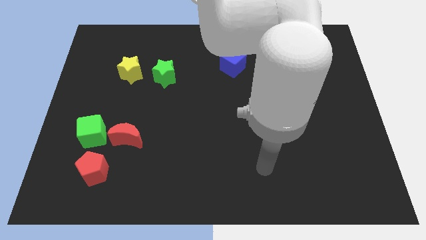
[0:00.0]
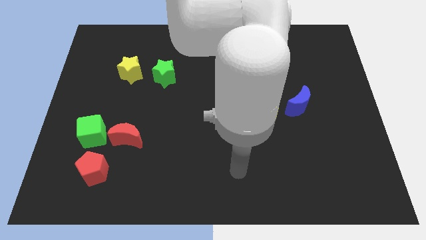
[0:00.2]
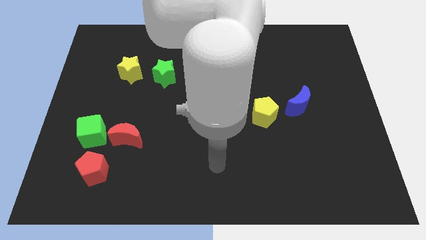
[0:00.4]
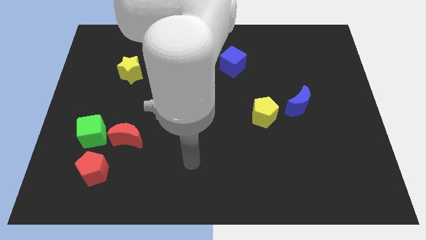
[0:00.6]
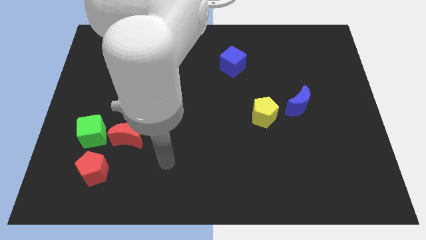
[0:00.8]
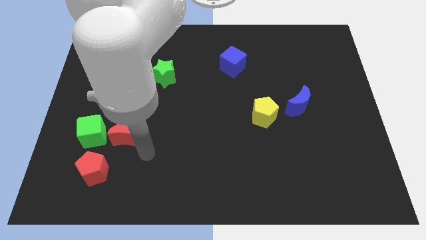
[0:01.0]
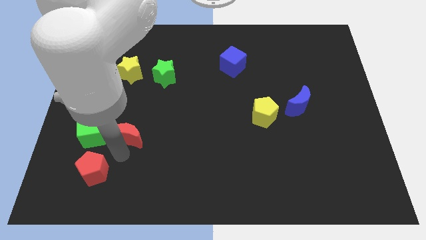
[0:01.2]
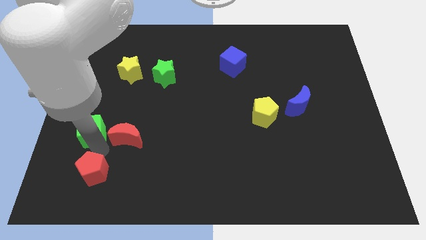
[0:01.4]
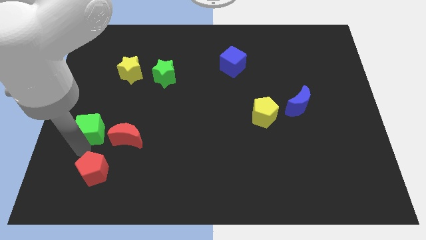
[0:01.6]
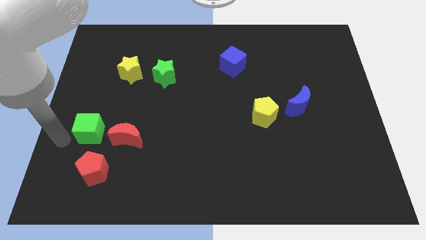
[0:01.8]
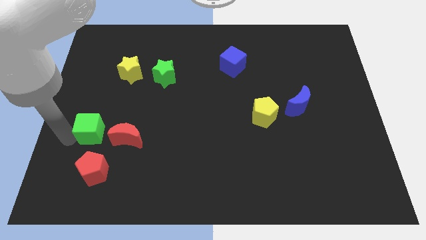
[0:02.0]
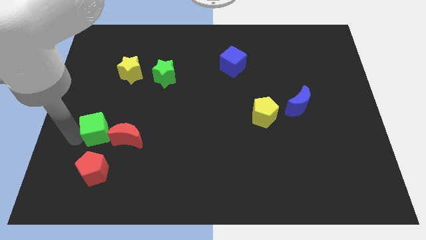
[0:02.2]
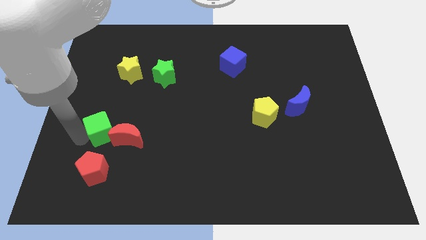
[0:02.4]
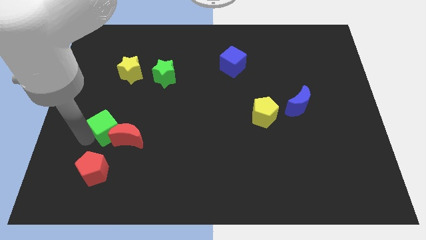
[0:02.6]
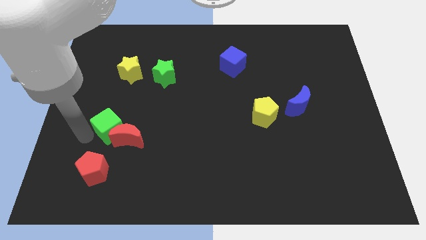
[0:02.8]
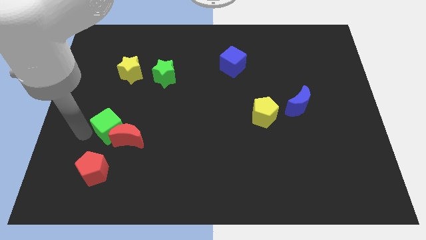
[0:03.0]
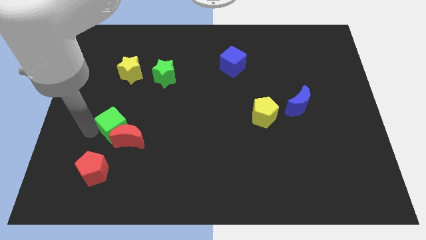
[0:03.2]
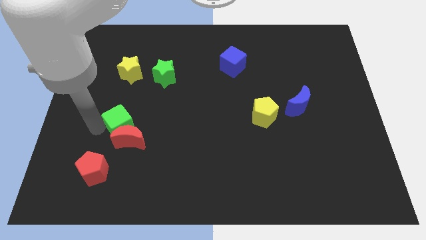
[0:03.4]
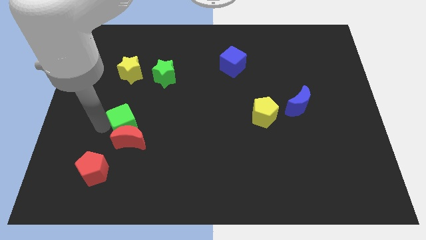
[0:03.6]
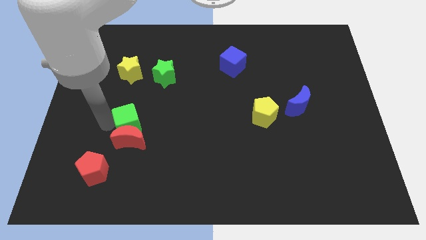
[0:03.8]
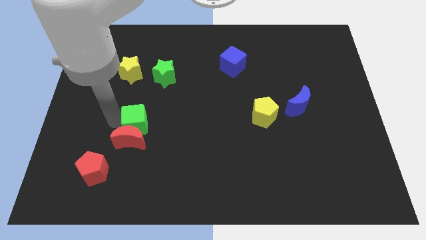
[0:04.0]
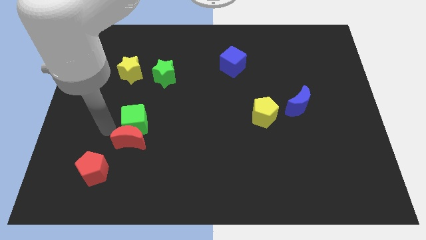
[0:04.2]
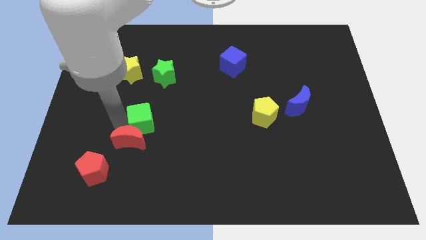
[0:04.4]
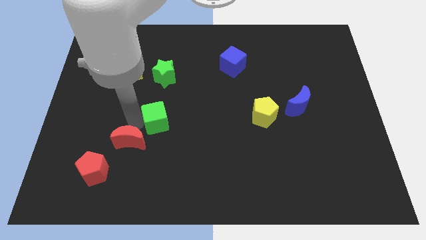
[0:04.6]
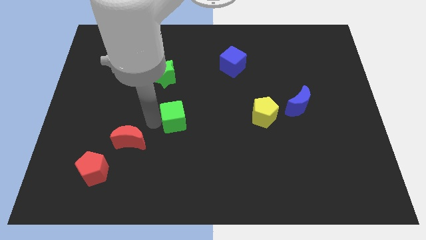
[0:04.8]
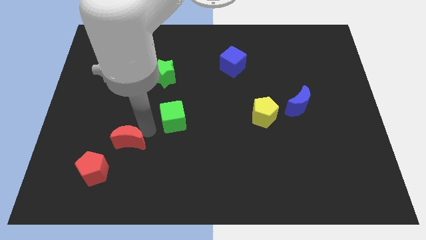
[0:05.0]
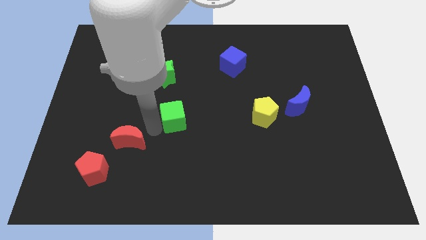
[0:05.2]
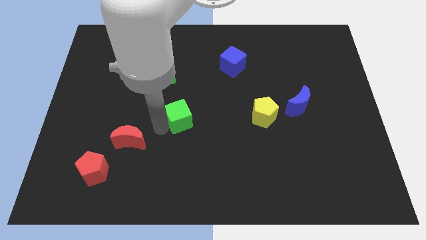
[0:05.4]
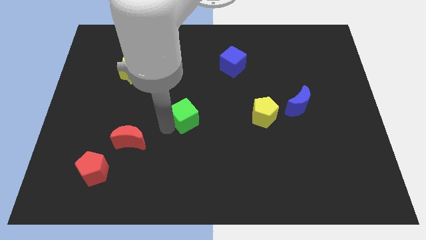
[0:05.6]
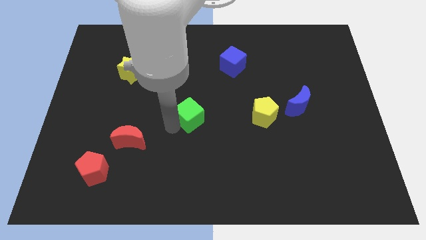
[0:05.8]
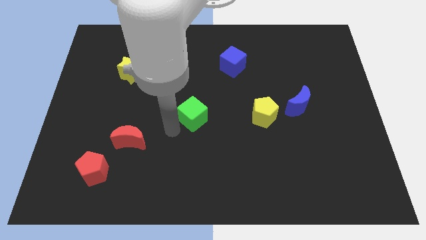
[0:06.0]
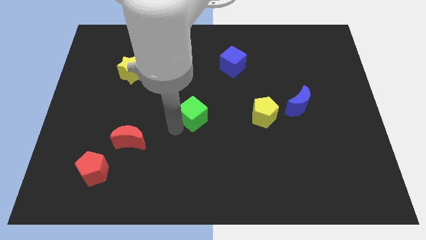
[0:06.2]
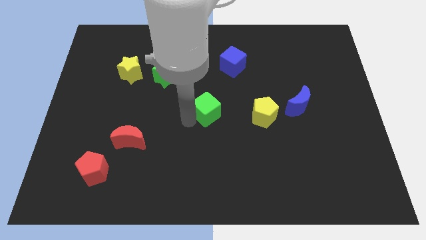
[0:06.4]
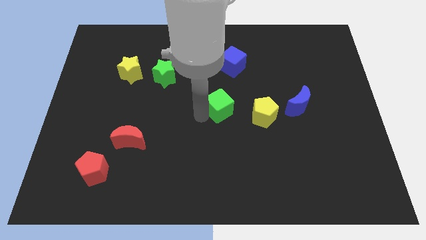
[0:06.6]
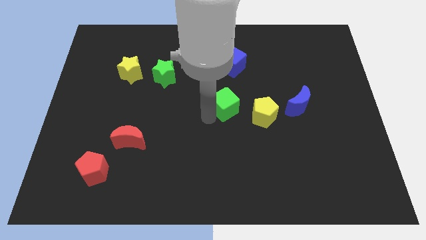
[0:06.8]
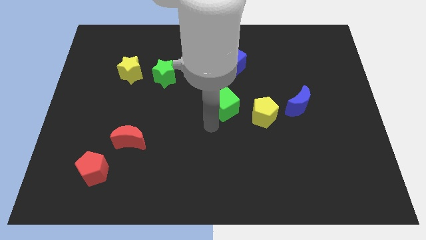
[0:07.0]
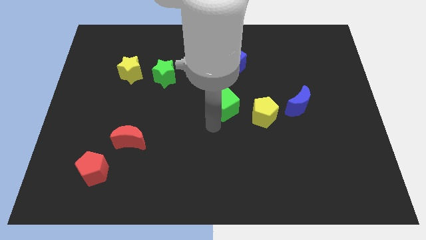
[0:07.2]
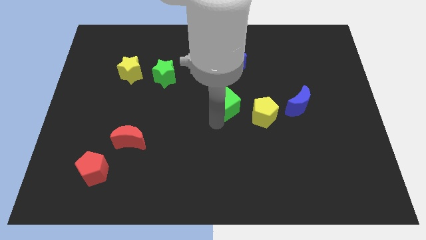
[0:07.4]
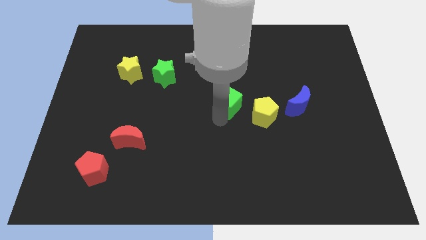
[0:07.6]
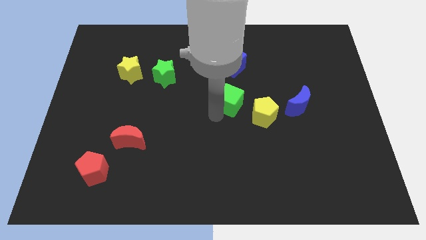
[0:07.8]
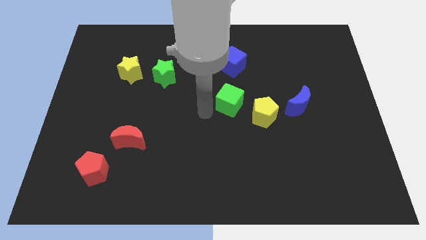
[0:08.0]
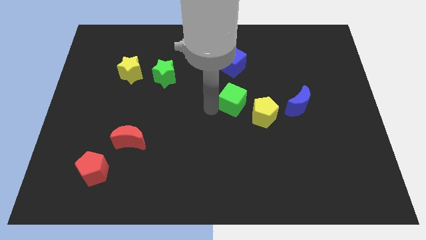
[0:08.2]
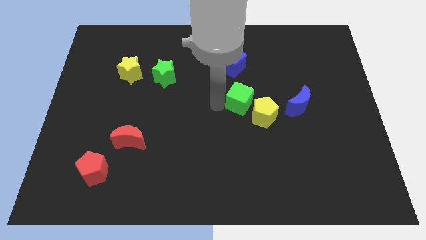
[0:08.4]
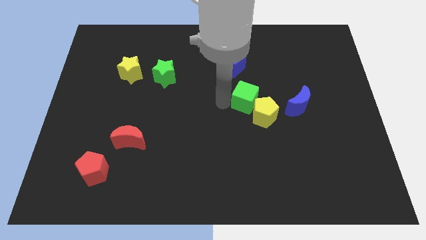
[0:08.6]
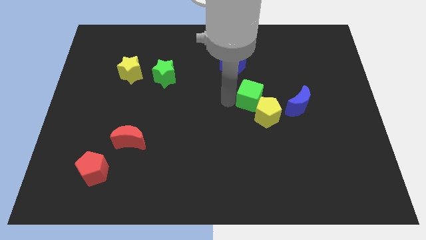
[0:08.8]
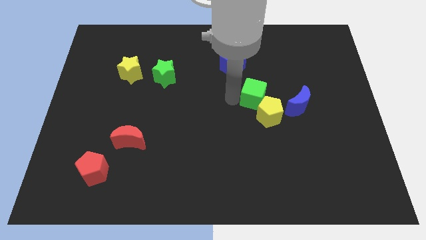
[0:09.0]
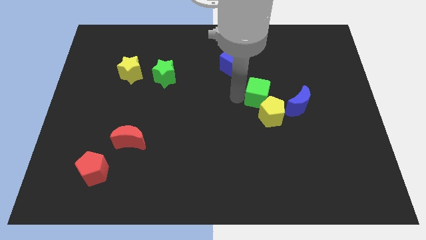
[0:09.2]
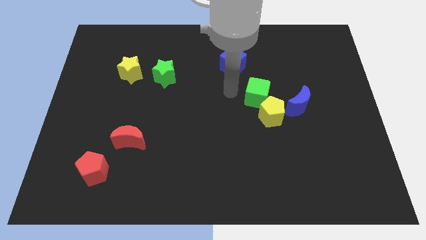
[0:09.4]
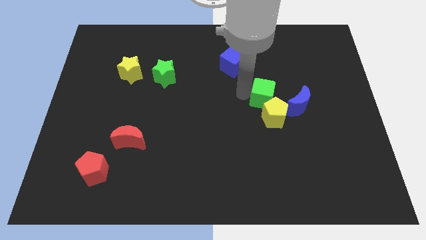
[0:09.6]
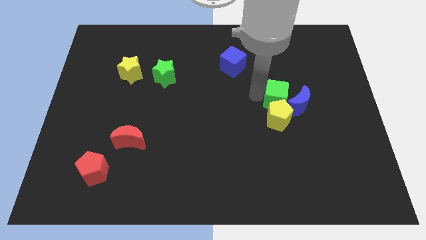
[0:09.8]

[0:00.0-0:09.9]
move the green cube towards the blue moon

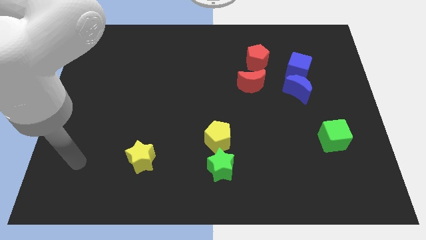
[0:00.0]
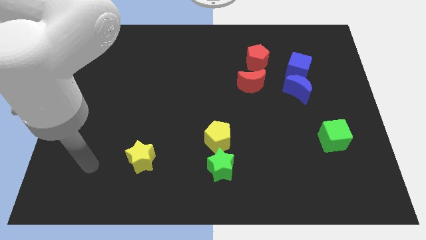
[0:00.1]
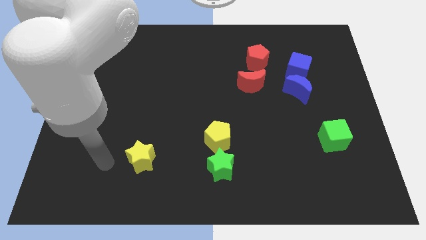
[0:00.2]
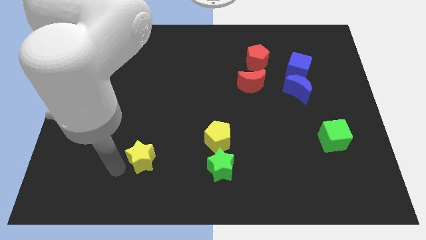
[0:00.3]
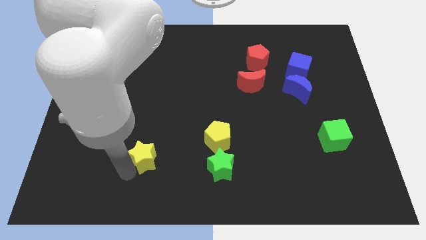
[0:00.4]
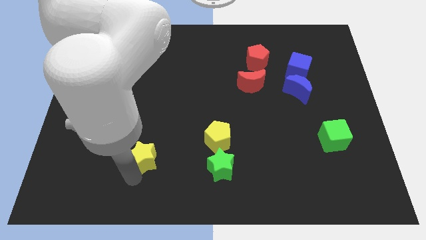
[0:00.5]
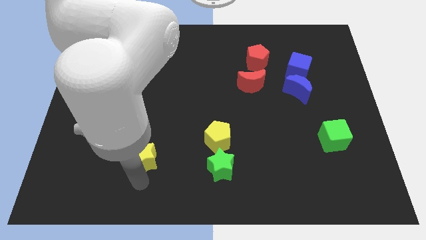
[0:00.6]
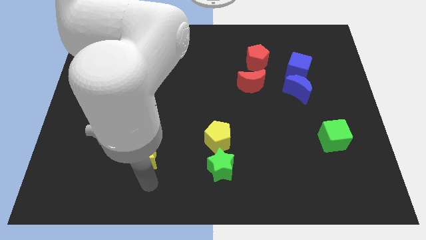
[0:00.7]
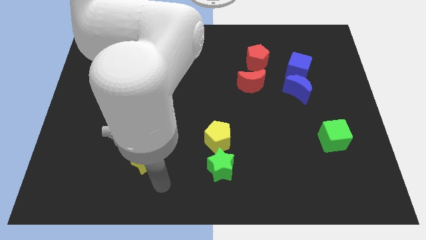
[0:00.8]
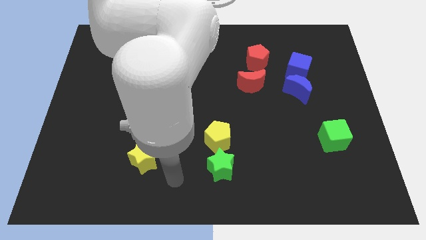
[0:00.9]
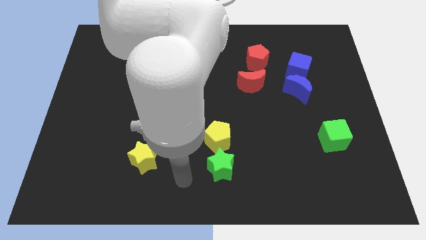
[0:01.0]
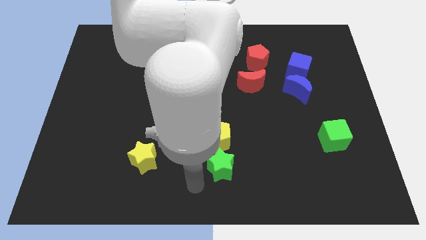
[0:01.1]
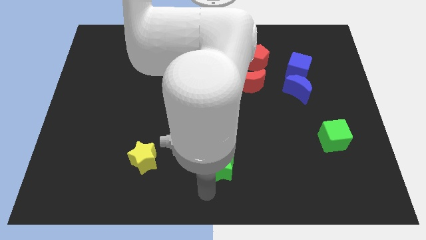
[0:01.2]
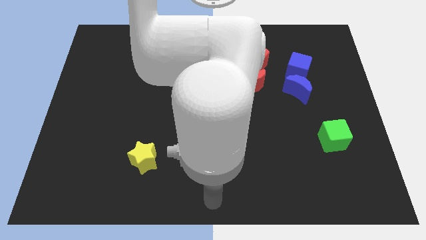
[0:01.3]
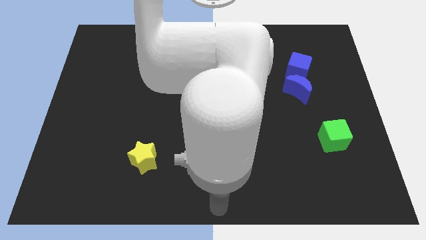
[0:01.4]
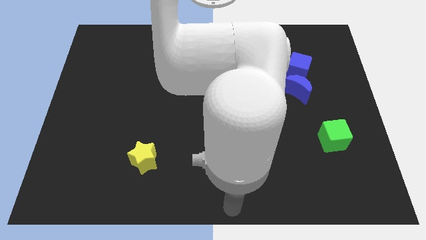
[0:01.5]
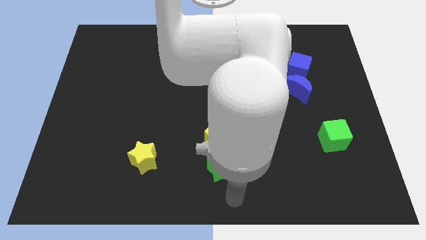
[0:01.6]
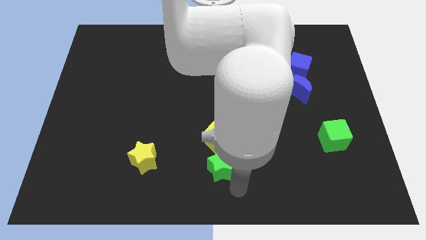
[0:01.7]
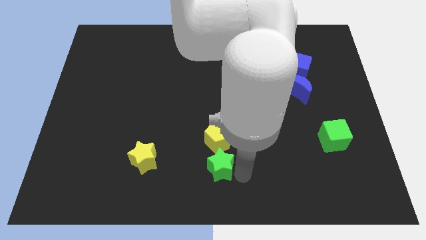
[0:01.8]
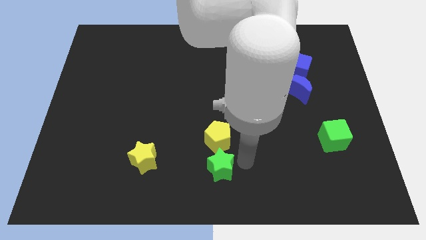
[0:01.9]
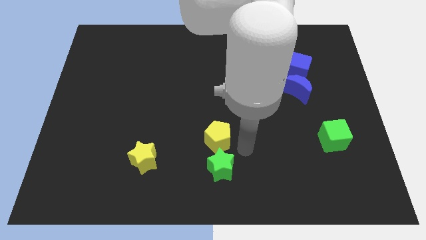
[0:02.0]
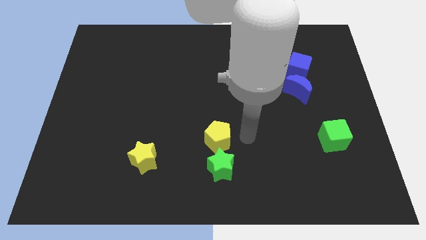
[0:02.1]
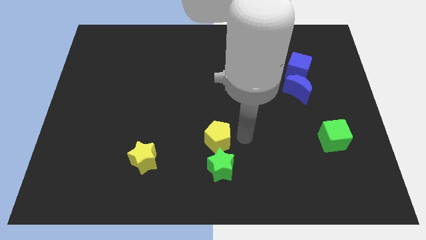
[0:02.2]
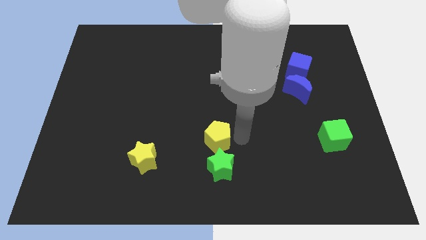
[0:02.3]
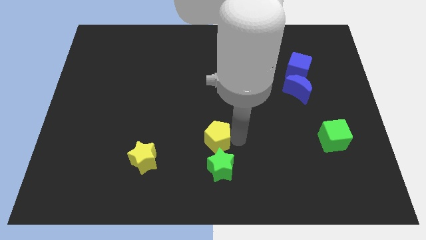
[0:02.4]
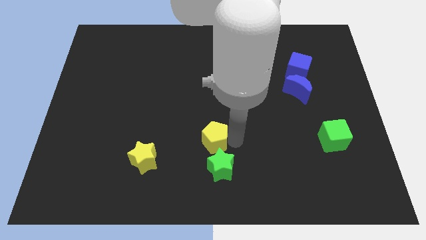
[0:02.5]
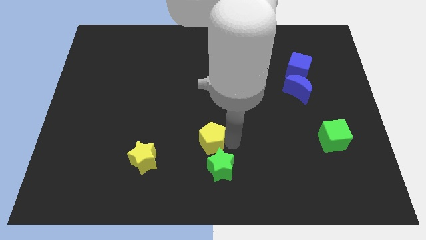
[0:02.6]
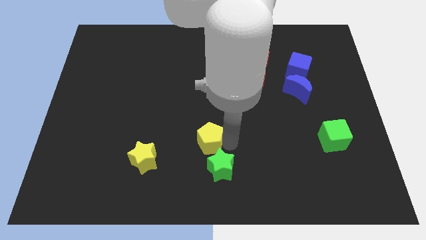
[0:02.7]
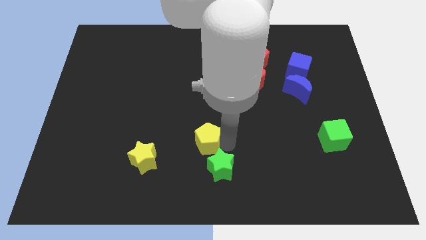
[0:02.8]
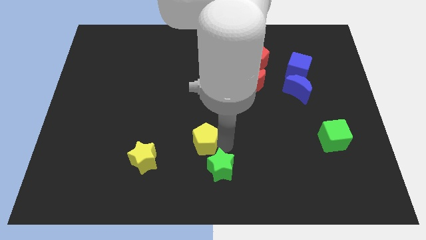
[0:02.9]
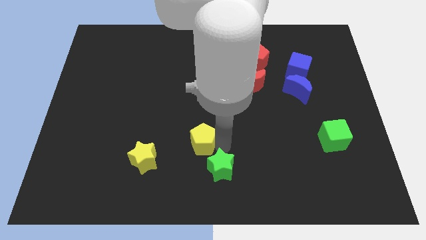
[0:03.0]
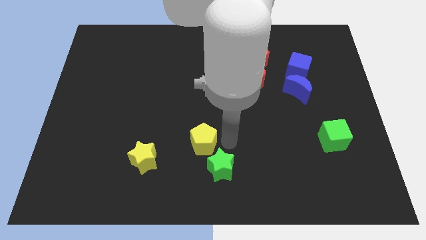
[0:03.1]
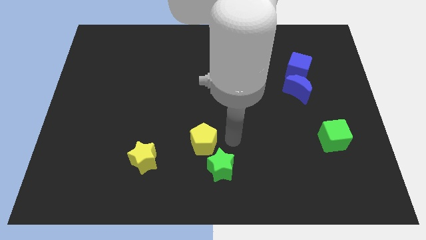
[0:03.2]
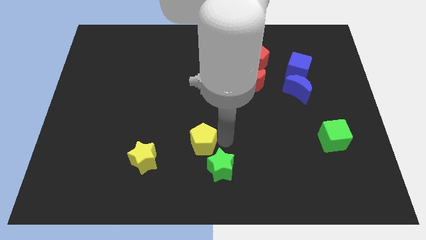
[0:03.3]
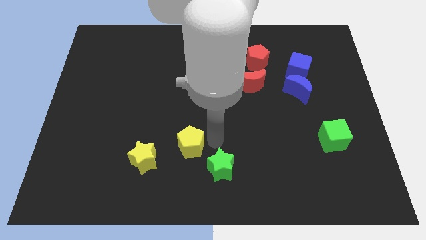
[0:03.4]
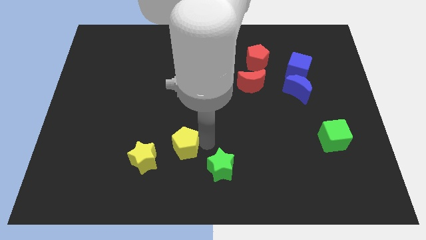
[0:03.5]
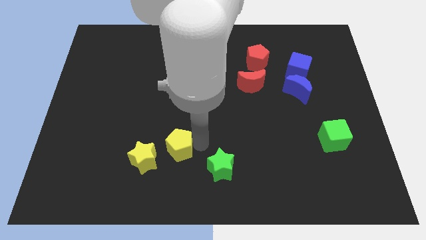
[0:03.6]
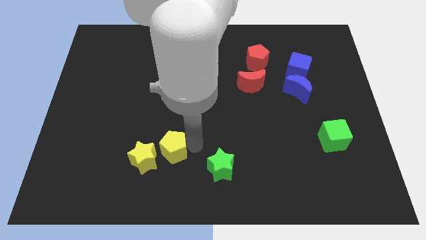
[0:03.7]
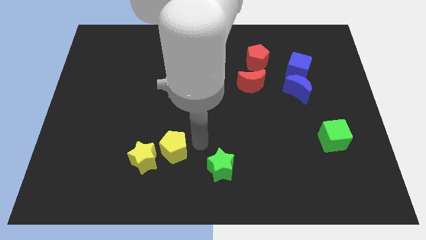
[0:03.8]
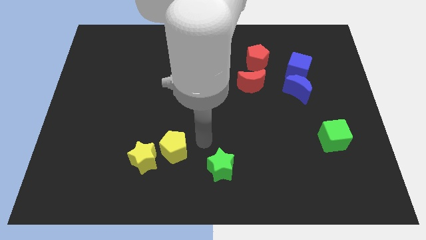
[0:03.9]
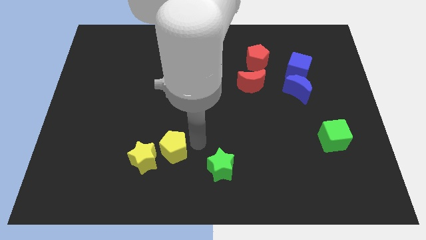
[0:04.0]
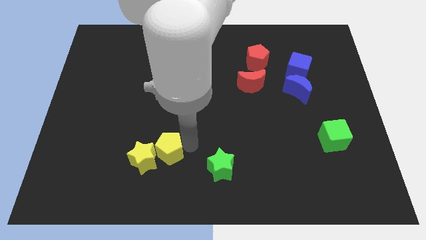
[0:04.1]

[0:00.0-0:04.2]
put the yellow pentagon close to the yellow star
